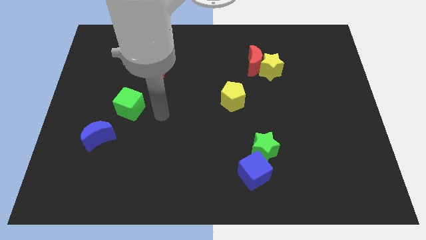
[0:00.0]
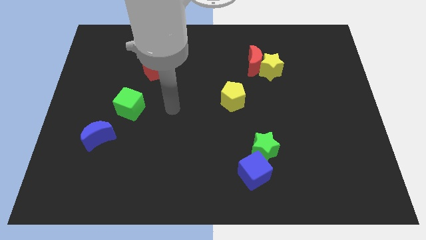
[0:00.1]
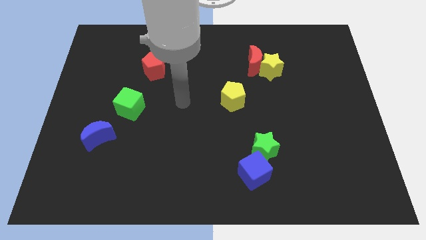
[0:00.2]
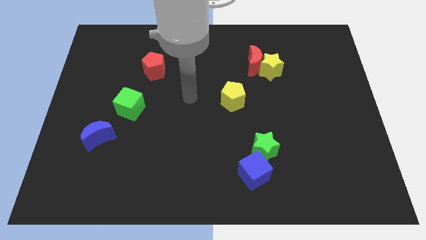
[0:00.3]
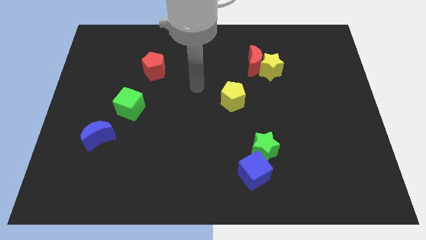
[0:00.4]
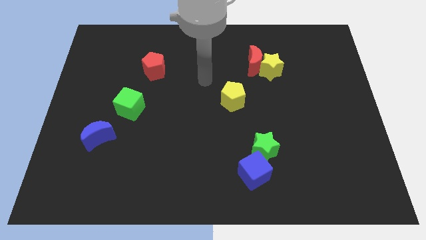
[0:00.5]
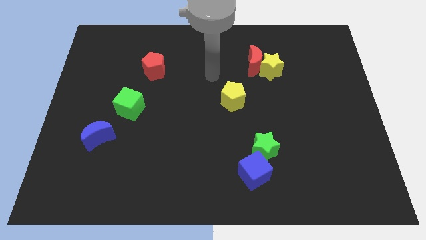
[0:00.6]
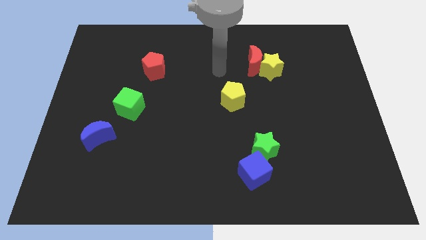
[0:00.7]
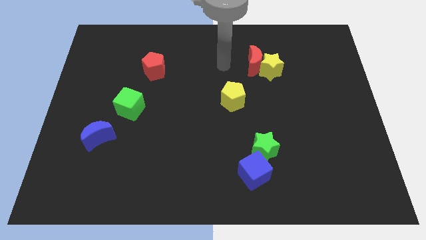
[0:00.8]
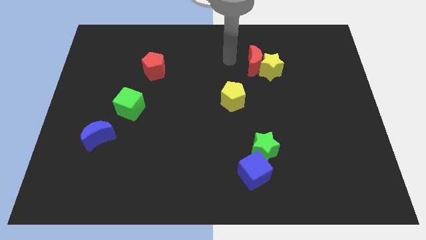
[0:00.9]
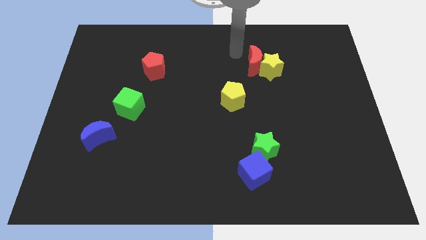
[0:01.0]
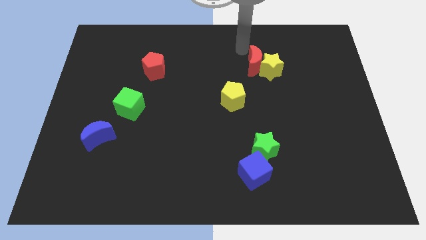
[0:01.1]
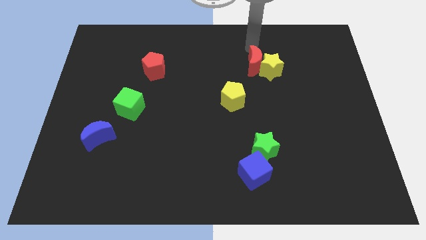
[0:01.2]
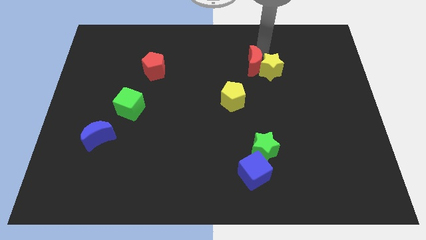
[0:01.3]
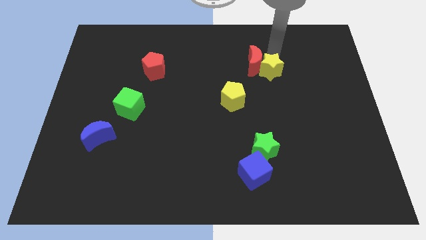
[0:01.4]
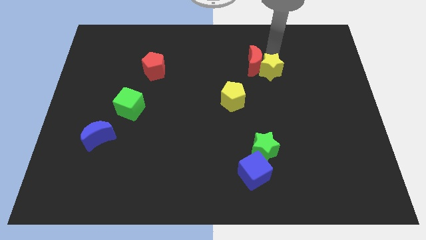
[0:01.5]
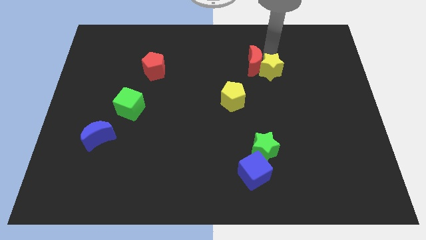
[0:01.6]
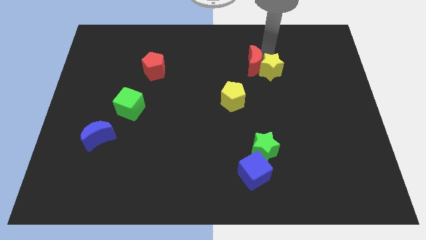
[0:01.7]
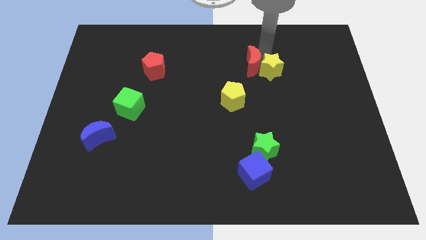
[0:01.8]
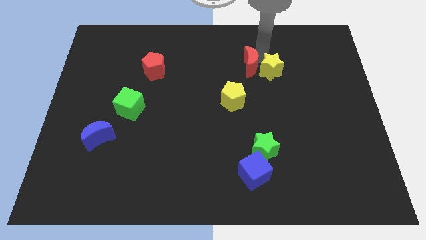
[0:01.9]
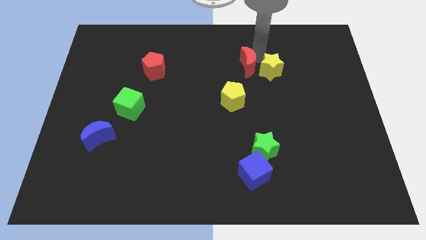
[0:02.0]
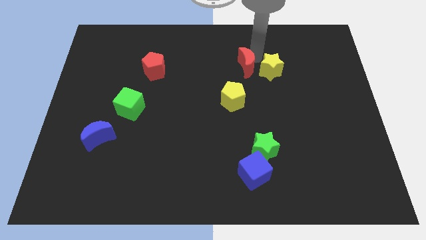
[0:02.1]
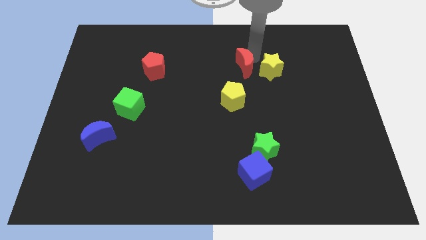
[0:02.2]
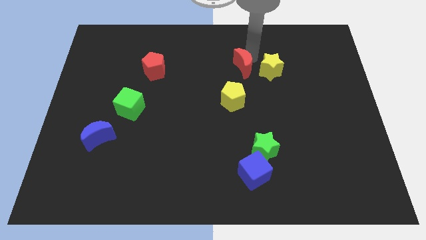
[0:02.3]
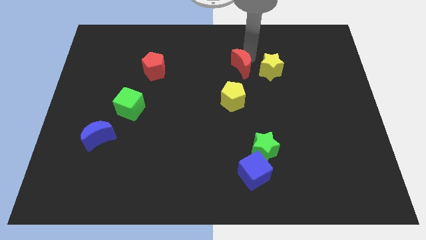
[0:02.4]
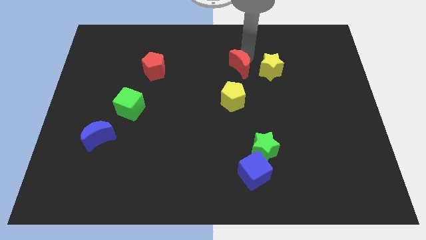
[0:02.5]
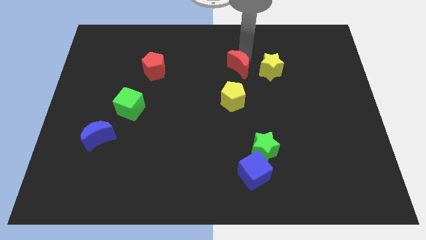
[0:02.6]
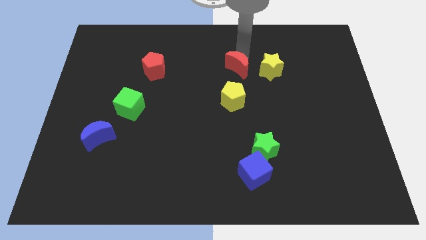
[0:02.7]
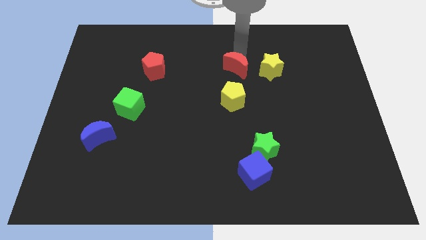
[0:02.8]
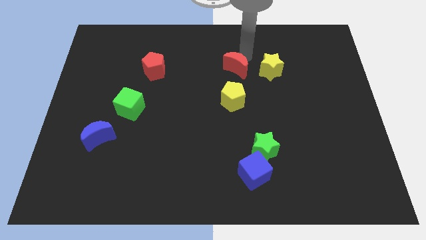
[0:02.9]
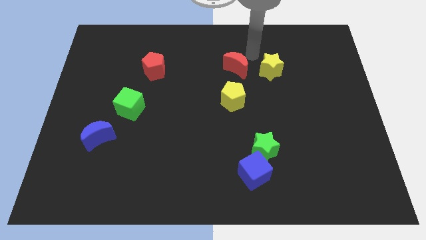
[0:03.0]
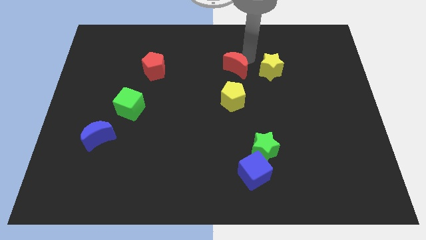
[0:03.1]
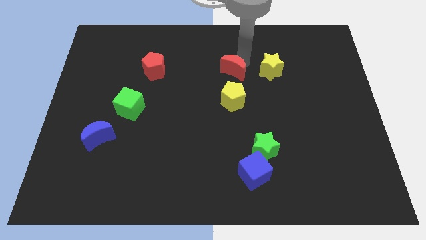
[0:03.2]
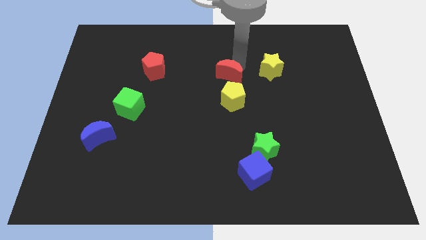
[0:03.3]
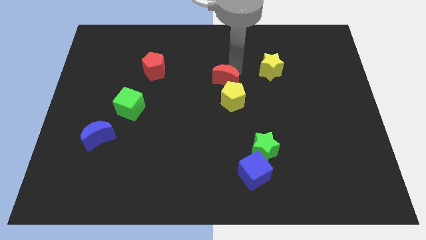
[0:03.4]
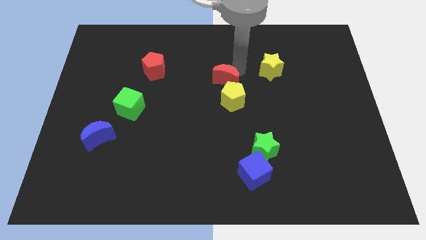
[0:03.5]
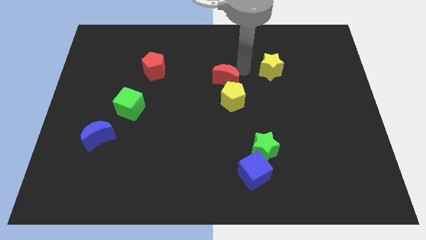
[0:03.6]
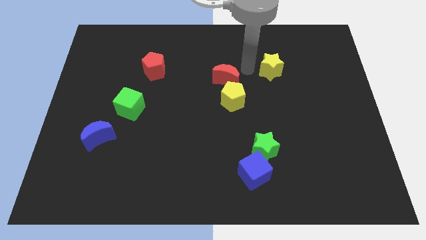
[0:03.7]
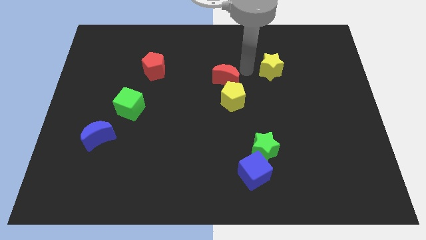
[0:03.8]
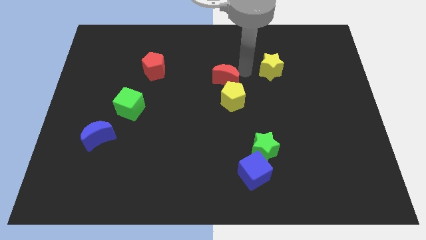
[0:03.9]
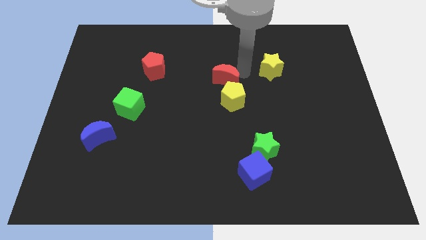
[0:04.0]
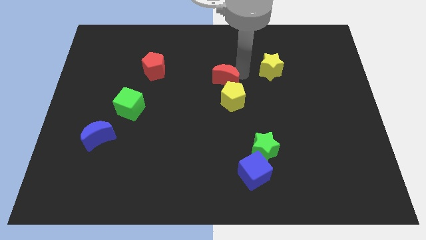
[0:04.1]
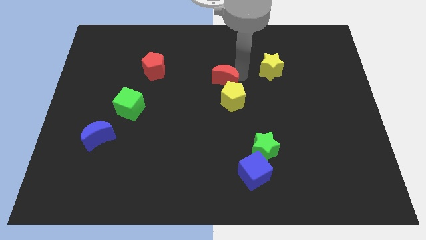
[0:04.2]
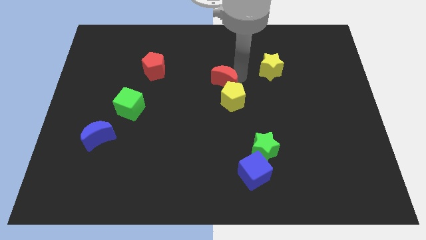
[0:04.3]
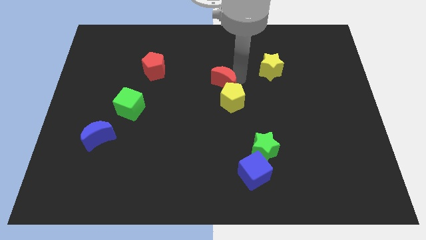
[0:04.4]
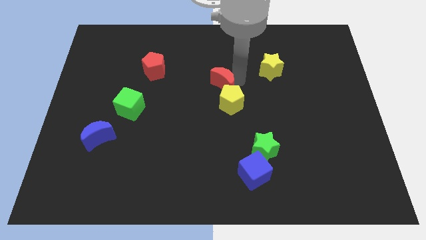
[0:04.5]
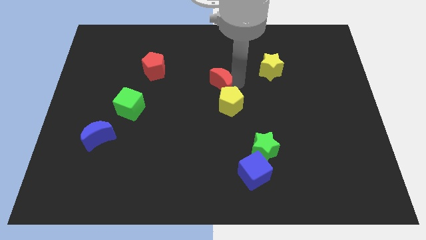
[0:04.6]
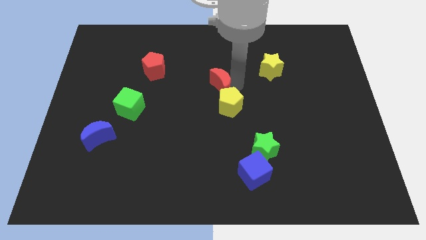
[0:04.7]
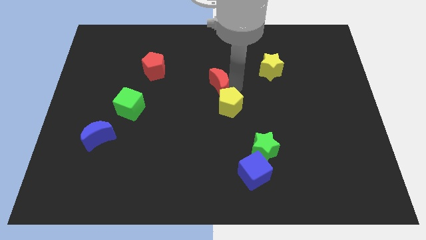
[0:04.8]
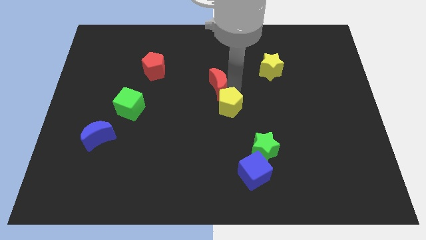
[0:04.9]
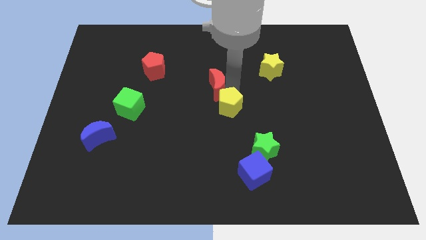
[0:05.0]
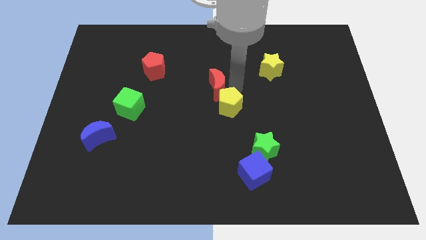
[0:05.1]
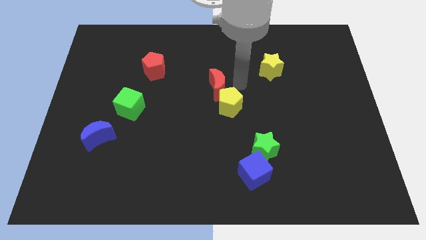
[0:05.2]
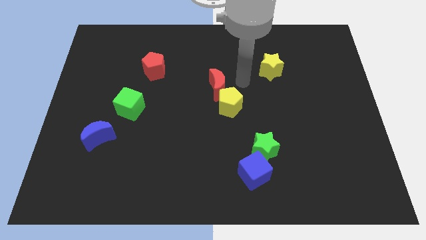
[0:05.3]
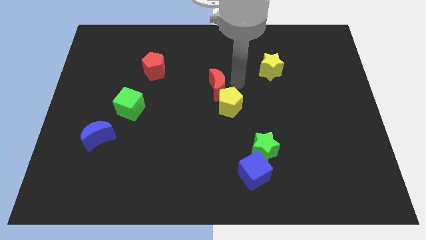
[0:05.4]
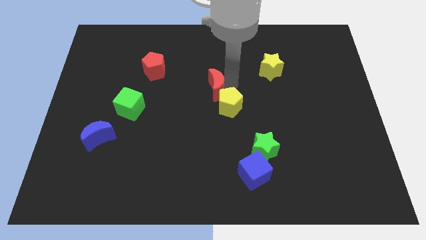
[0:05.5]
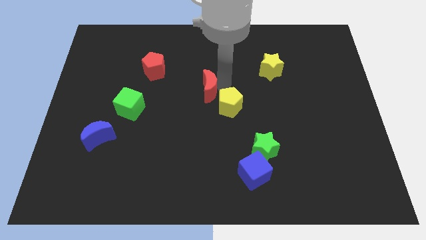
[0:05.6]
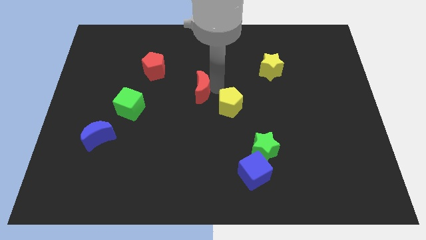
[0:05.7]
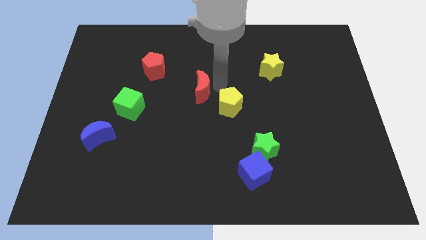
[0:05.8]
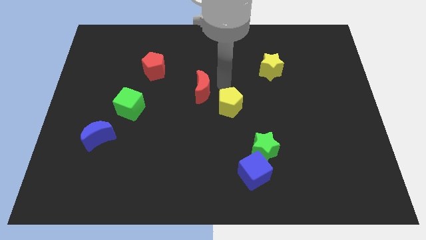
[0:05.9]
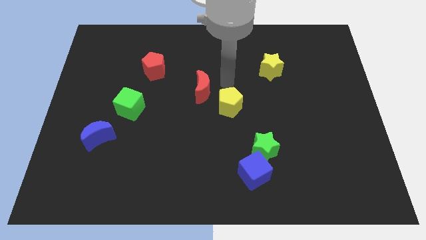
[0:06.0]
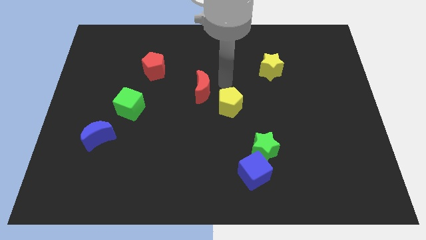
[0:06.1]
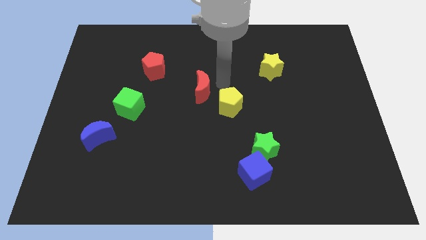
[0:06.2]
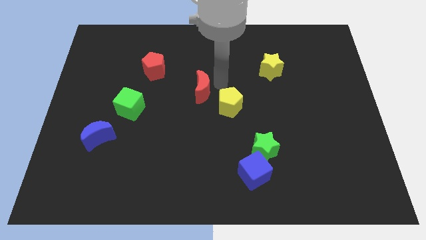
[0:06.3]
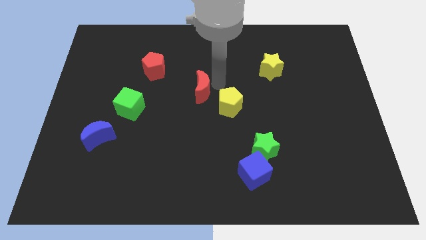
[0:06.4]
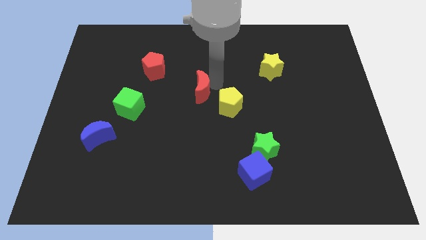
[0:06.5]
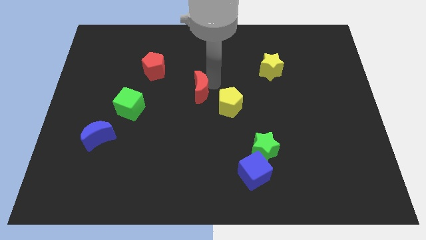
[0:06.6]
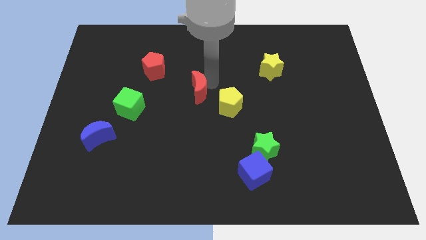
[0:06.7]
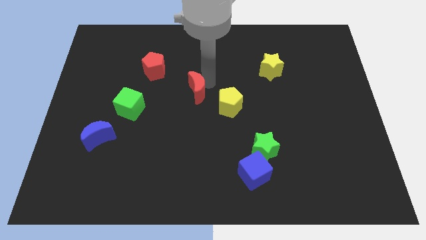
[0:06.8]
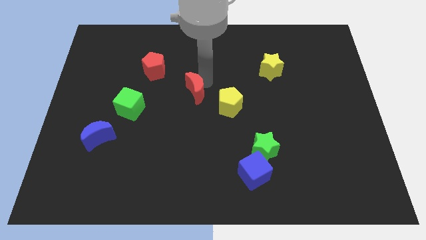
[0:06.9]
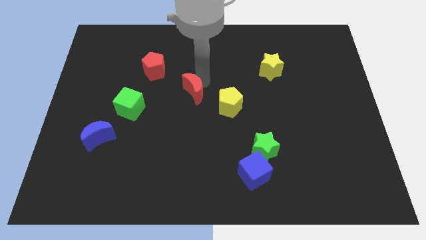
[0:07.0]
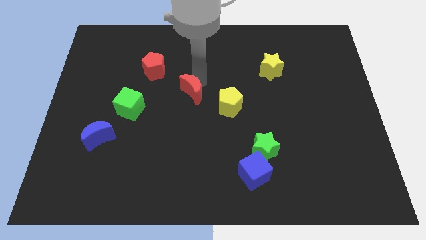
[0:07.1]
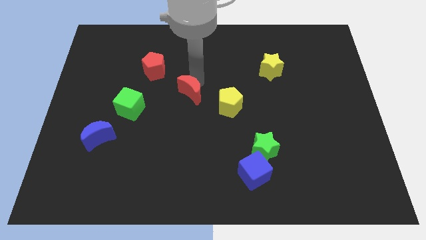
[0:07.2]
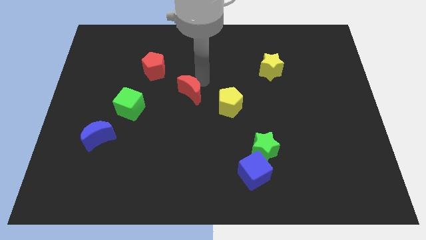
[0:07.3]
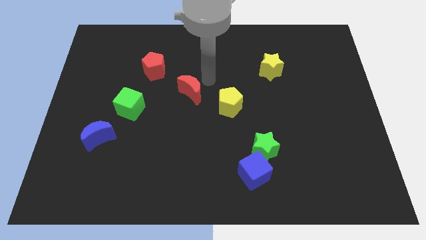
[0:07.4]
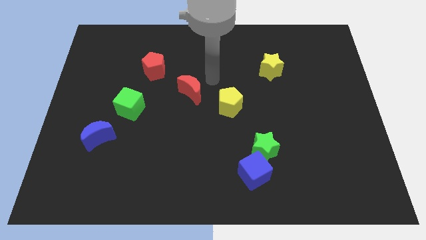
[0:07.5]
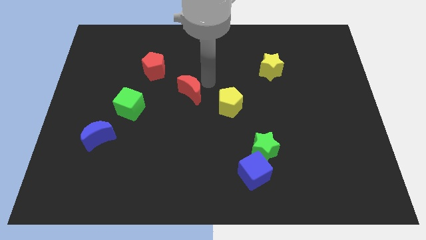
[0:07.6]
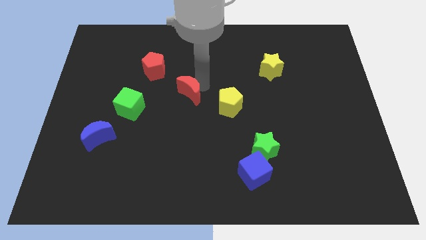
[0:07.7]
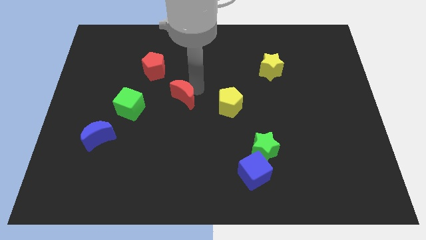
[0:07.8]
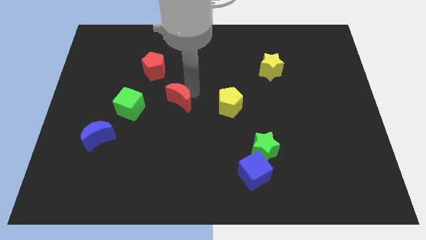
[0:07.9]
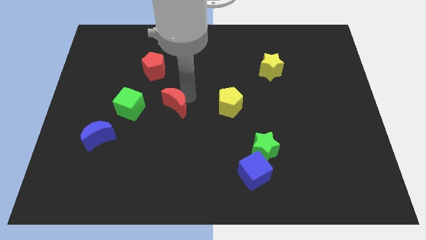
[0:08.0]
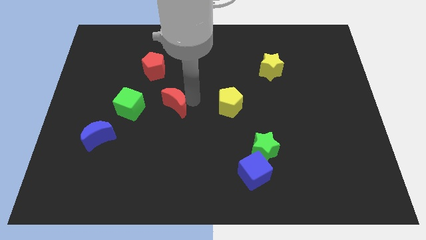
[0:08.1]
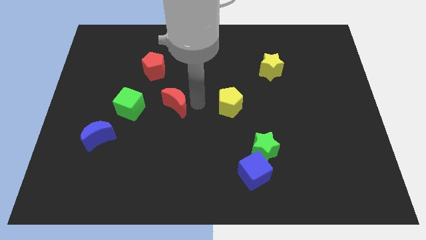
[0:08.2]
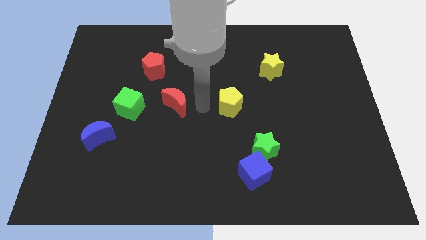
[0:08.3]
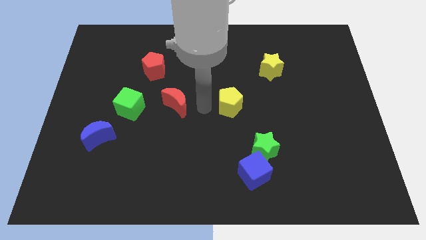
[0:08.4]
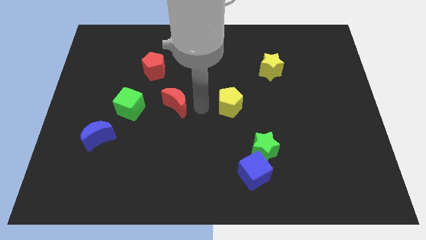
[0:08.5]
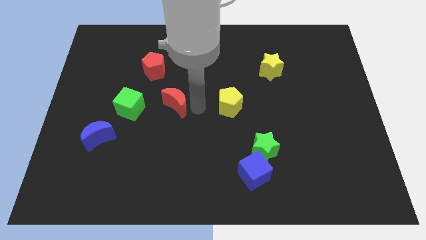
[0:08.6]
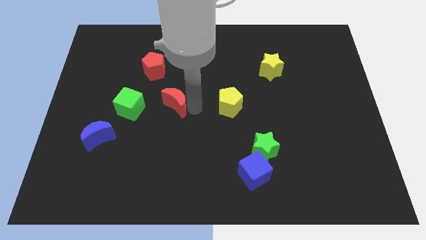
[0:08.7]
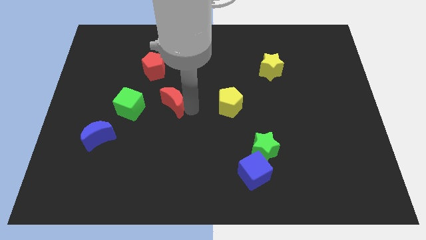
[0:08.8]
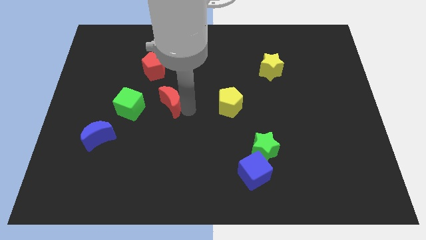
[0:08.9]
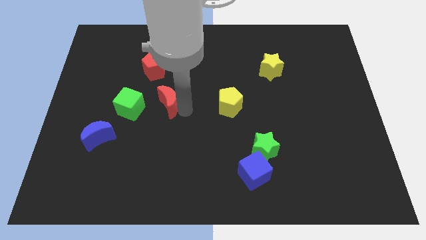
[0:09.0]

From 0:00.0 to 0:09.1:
move the red moon to the bottom side of the red pentagon
